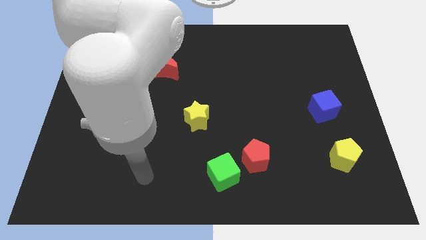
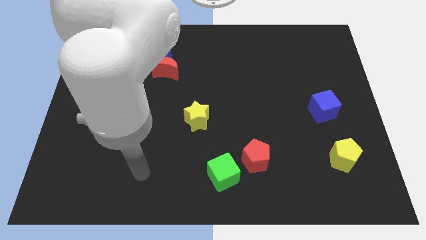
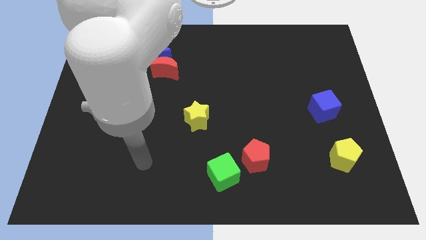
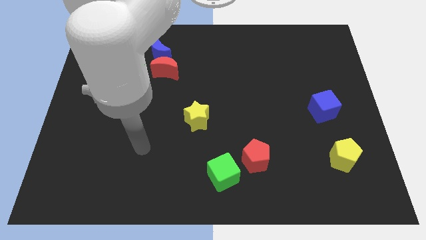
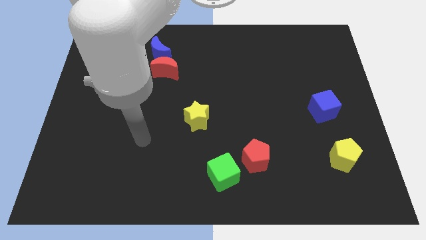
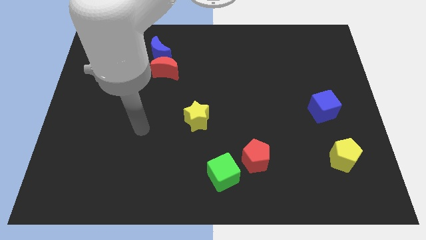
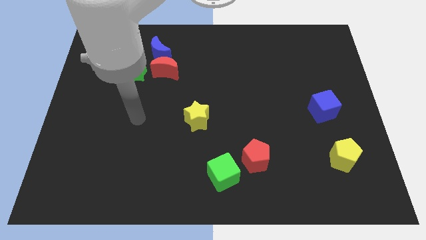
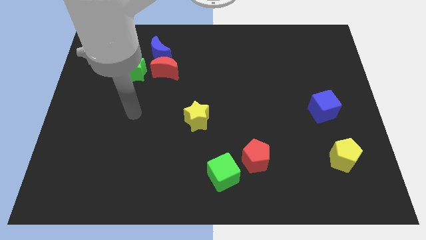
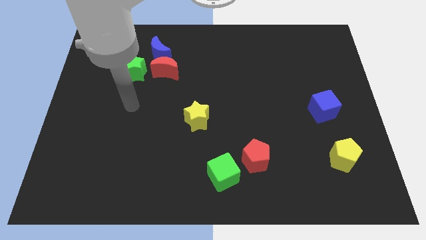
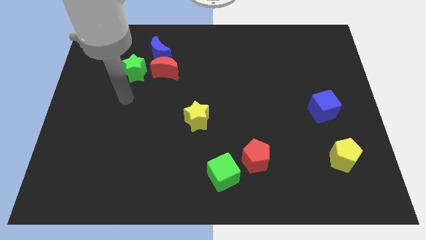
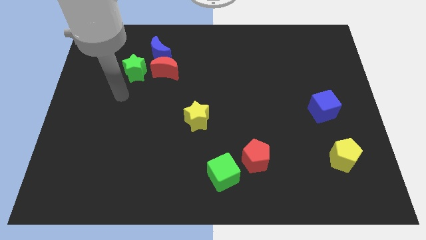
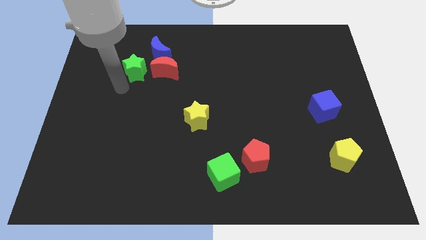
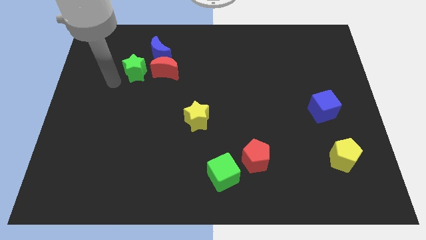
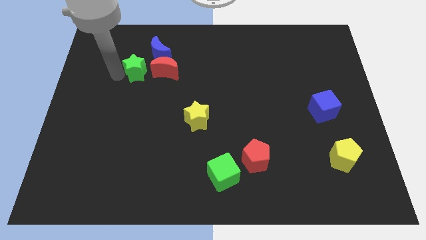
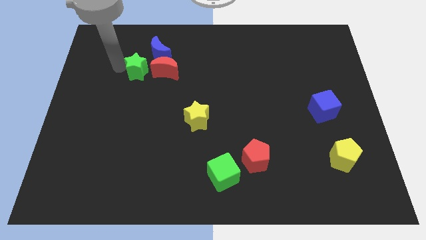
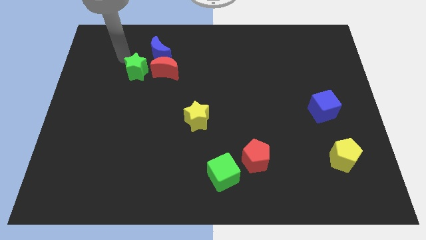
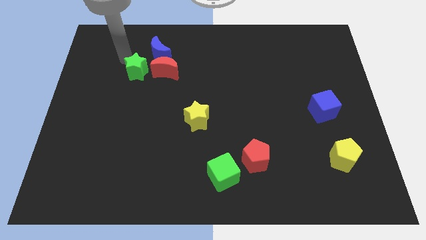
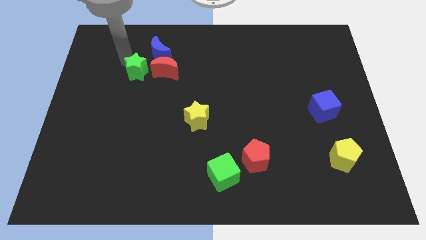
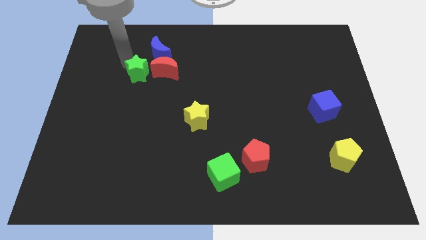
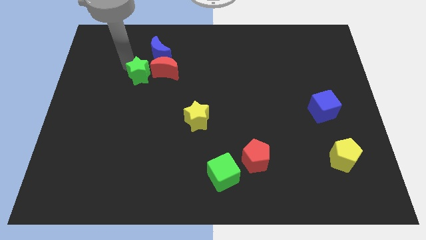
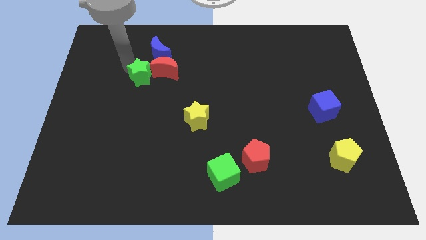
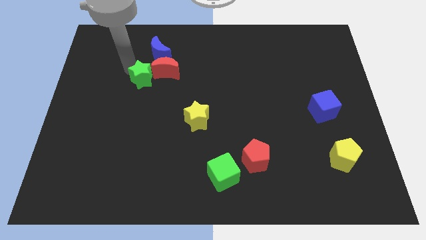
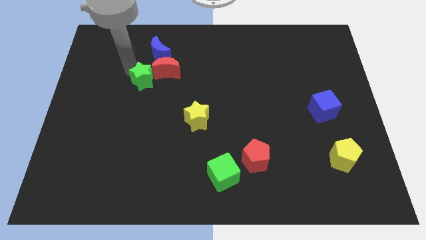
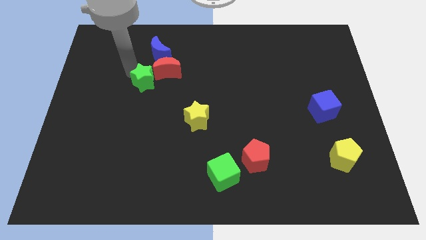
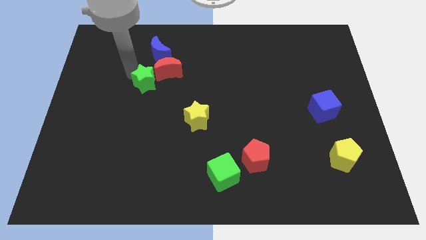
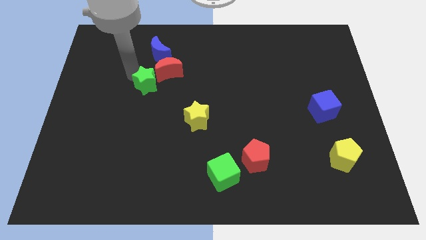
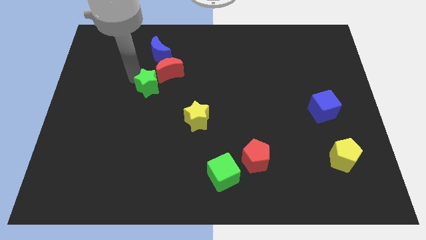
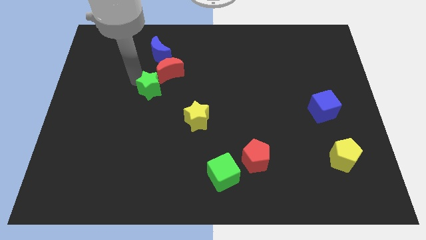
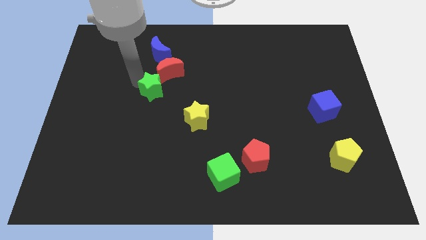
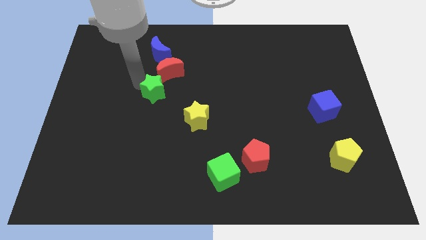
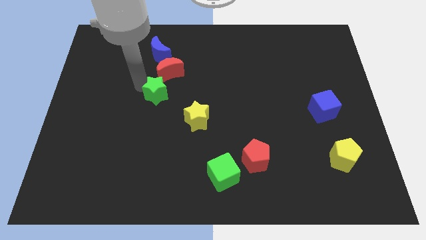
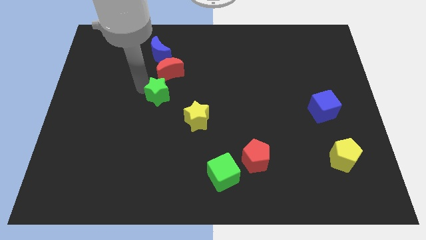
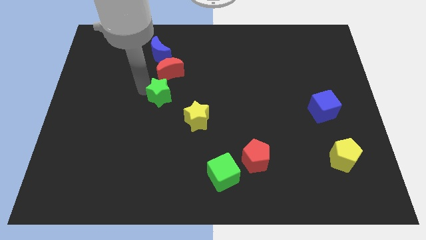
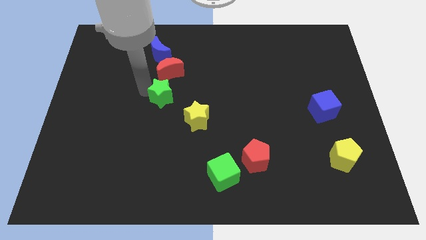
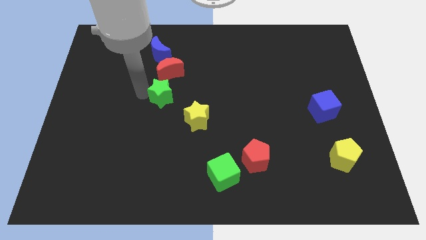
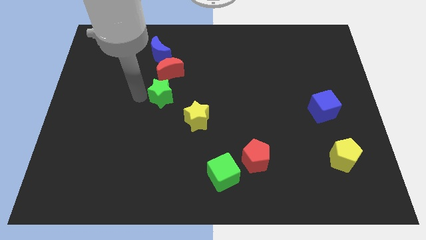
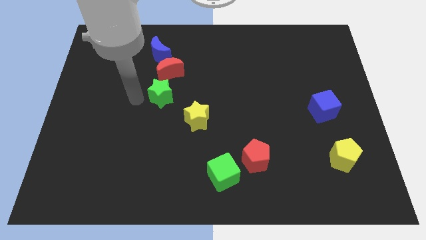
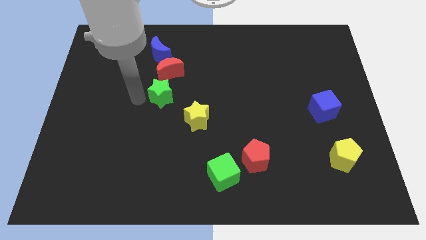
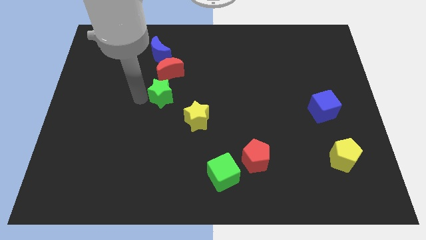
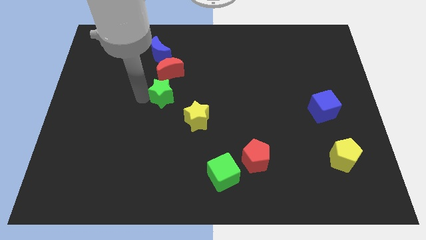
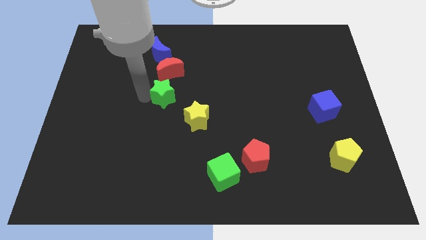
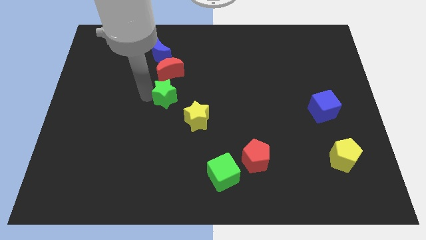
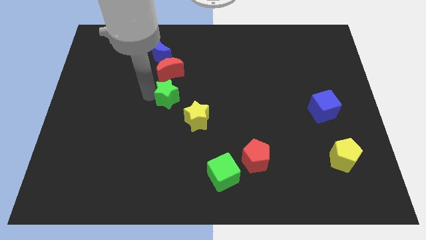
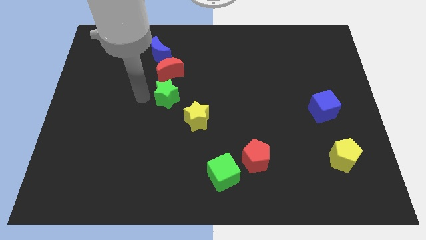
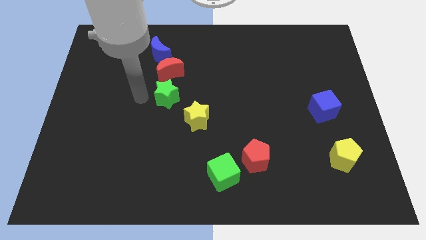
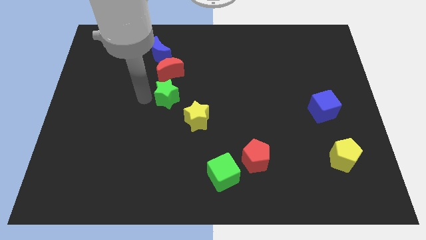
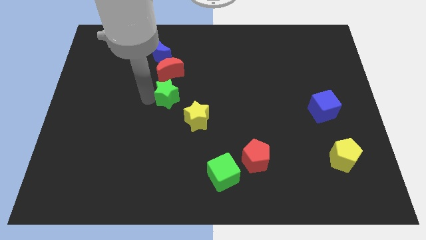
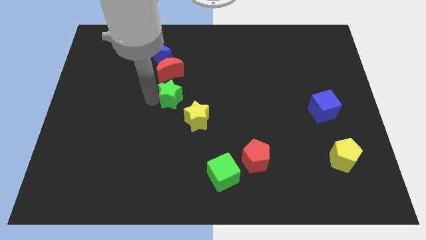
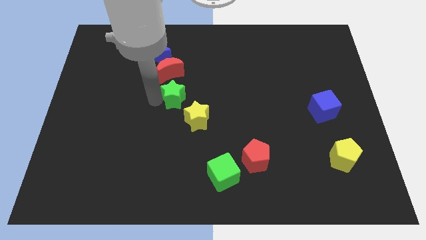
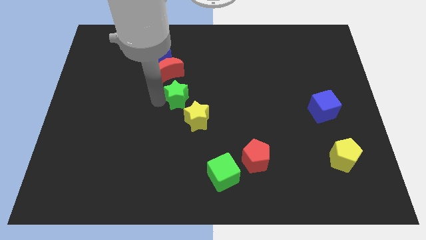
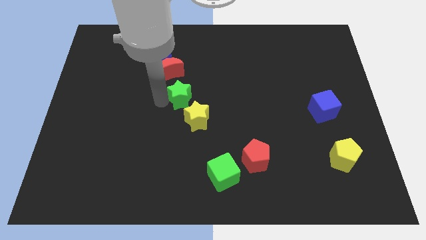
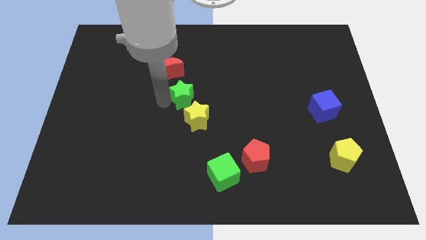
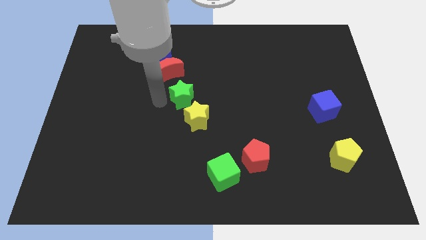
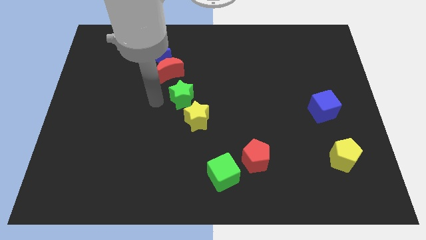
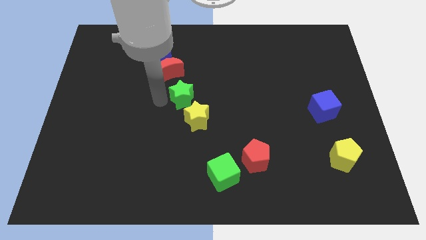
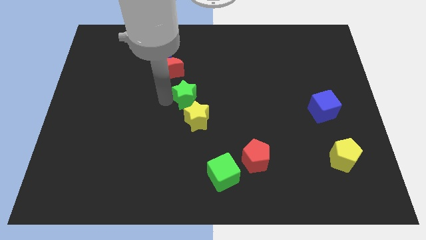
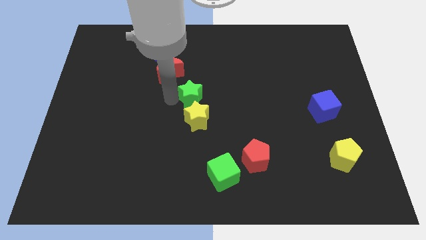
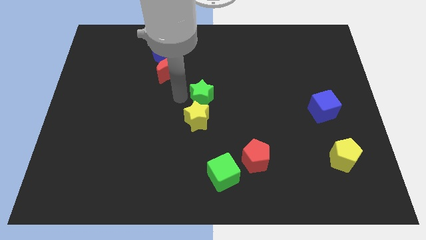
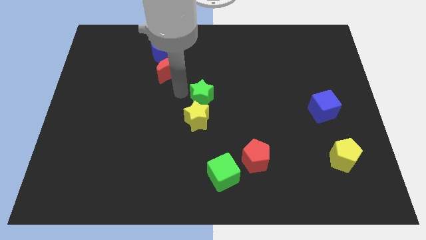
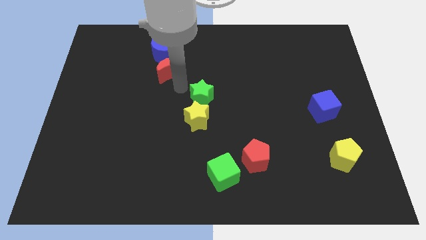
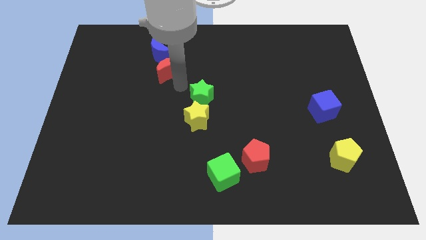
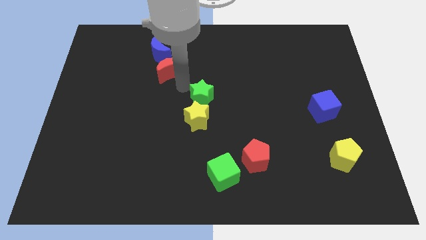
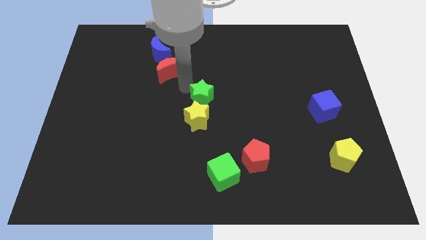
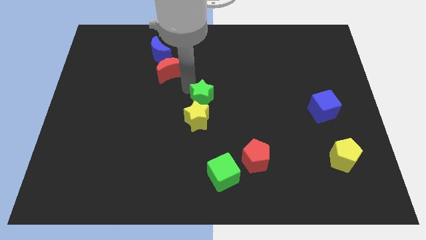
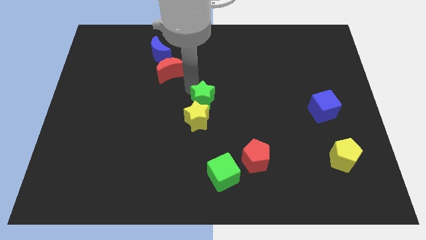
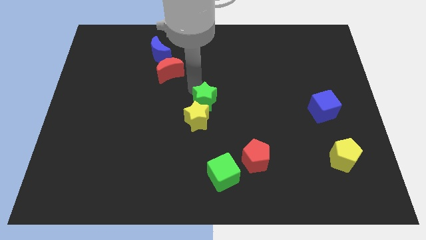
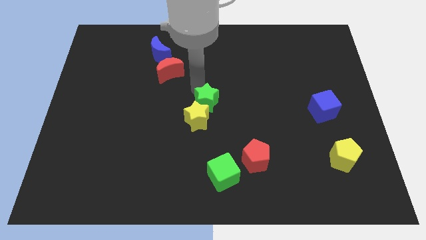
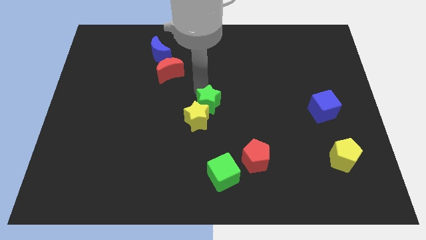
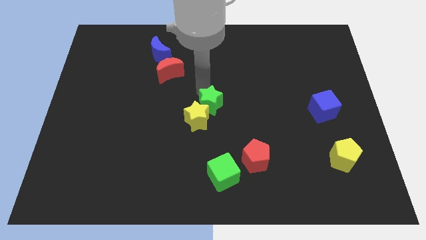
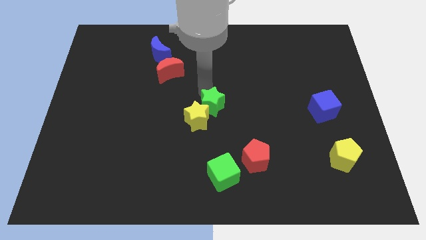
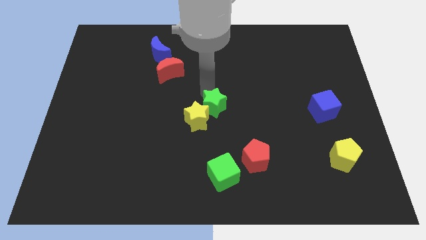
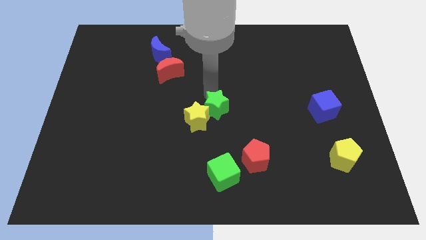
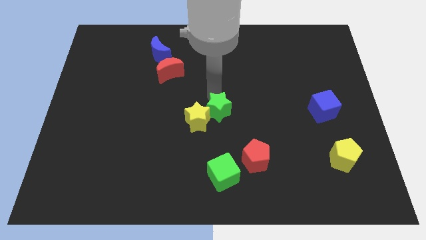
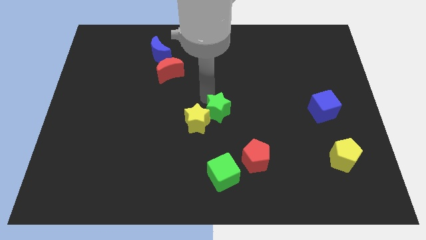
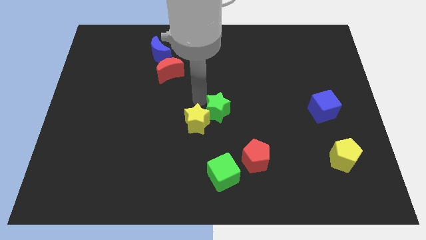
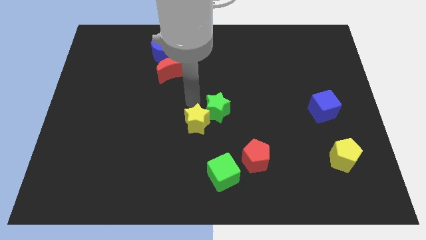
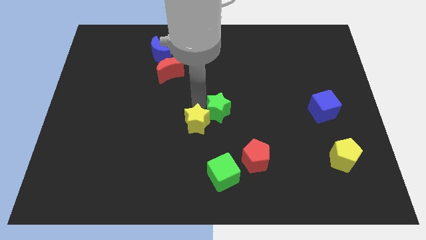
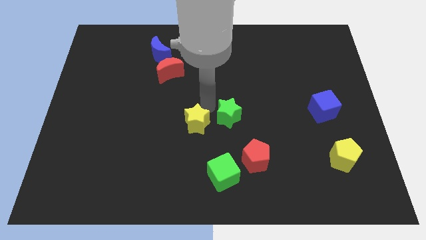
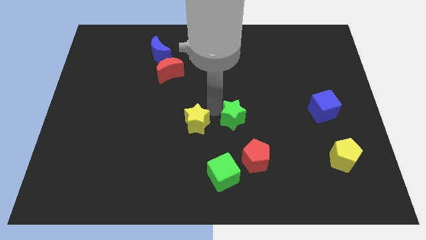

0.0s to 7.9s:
push the green star to the top side of the red pentagon
